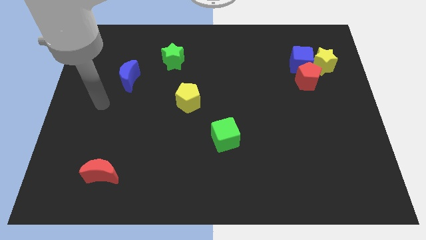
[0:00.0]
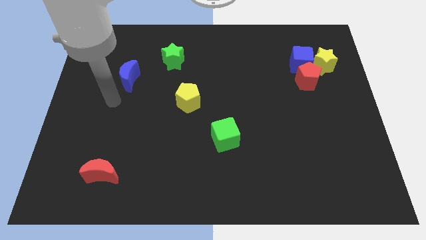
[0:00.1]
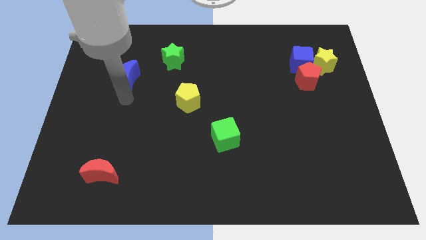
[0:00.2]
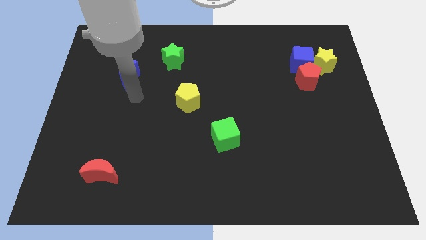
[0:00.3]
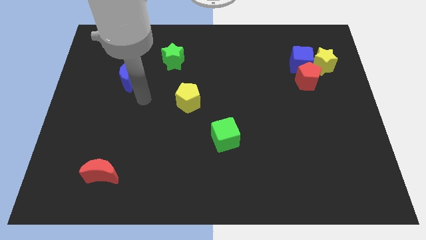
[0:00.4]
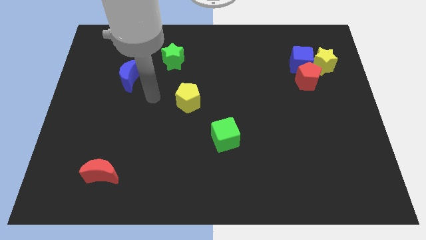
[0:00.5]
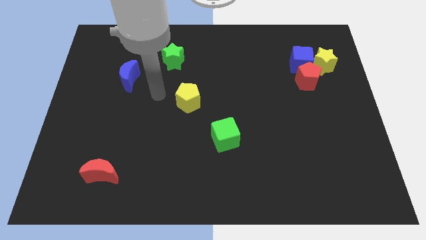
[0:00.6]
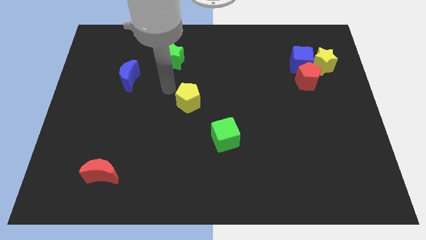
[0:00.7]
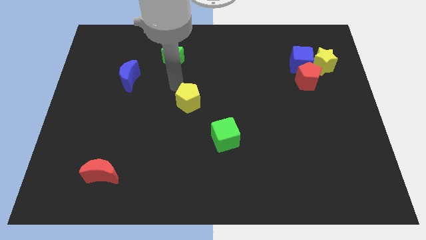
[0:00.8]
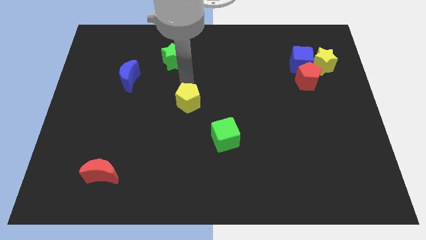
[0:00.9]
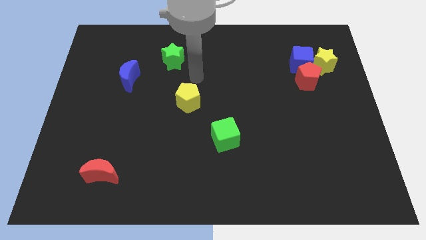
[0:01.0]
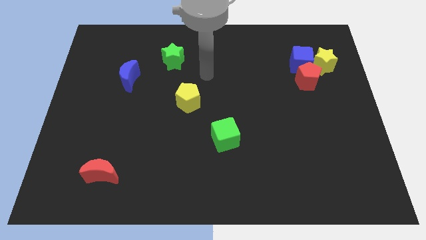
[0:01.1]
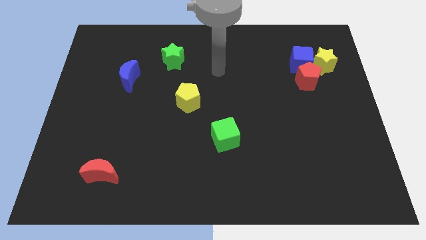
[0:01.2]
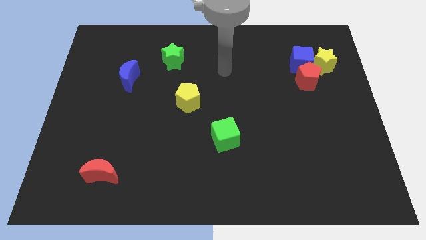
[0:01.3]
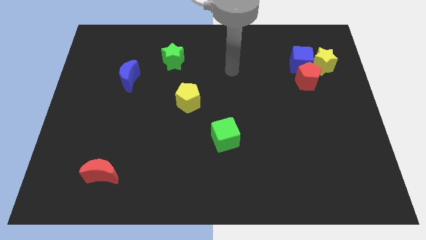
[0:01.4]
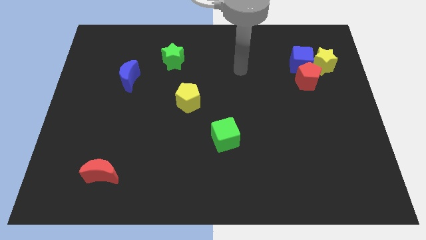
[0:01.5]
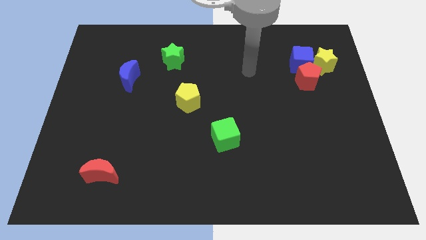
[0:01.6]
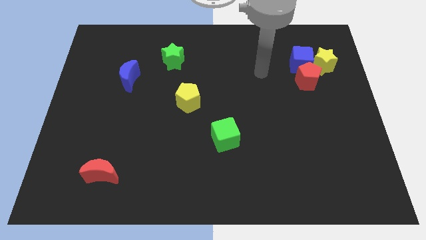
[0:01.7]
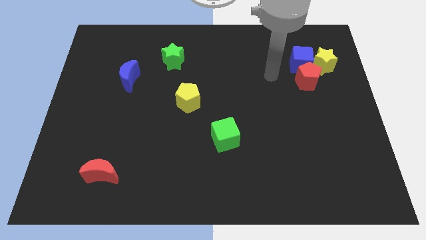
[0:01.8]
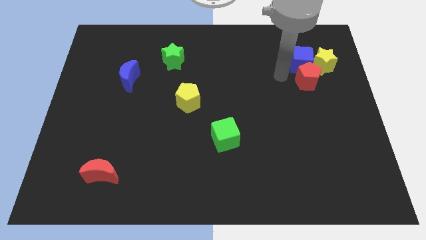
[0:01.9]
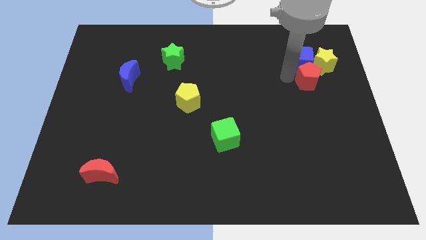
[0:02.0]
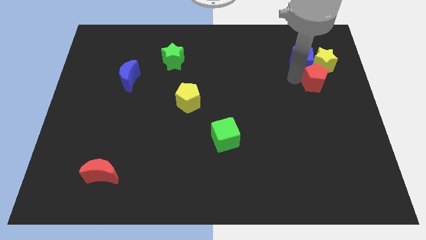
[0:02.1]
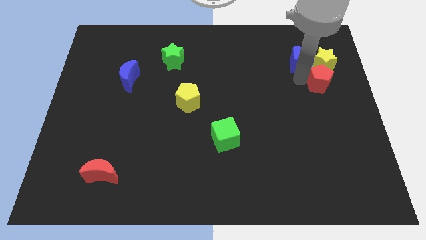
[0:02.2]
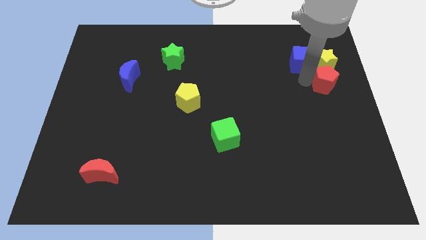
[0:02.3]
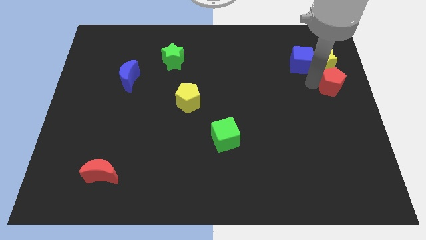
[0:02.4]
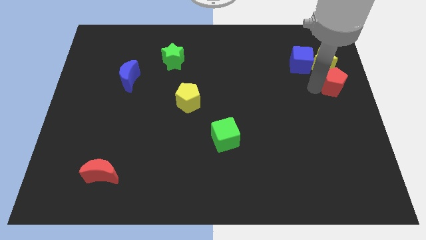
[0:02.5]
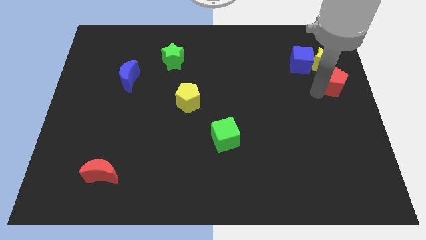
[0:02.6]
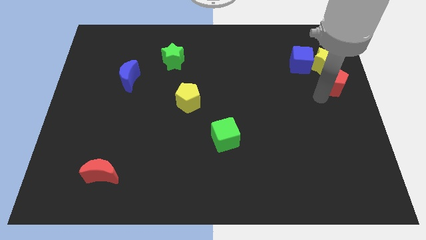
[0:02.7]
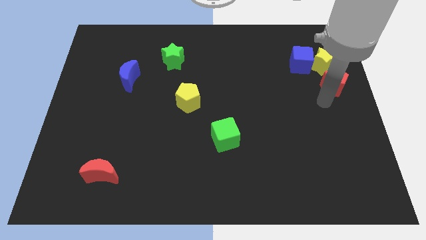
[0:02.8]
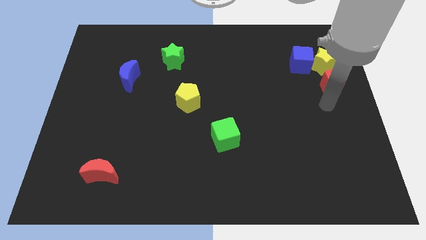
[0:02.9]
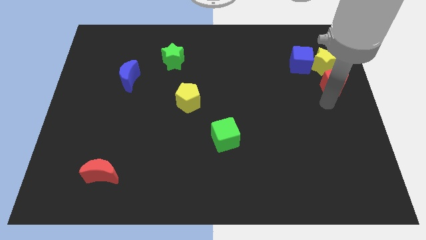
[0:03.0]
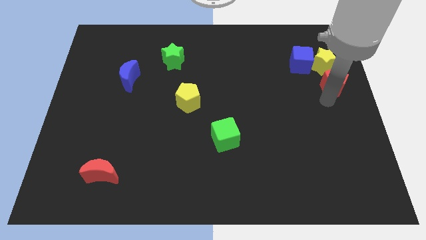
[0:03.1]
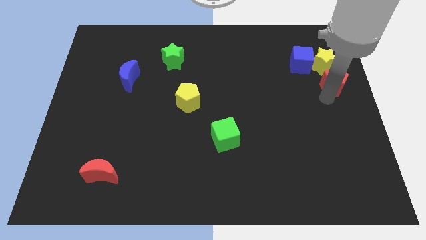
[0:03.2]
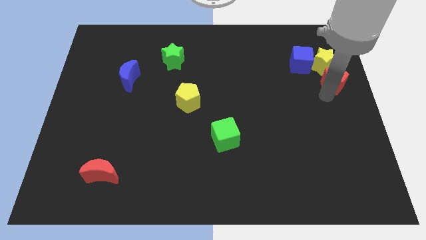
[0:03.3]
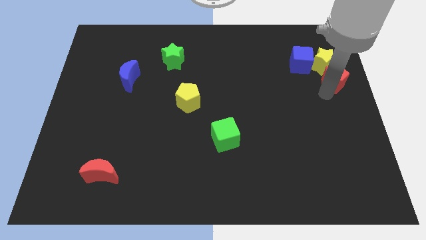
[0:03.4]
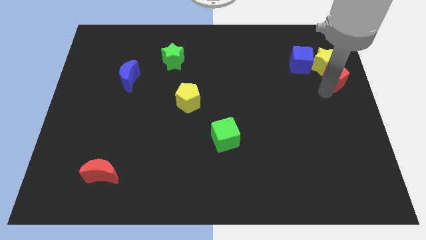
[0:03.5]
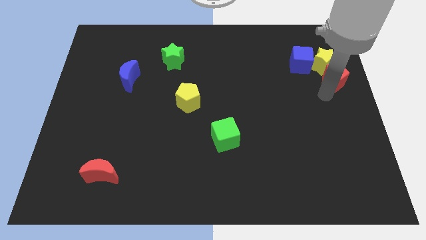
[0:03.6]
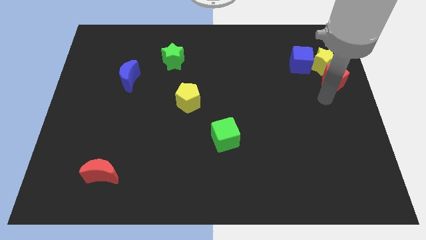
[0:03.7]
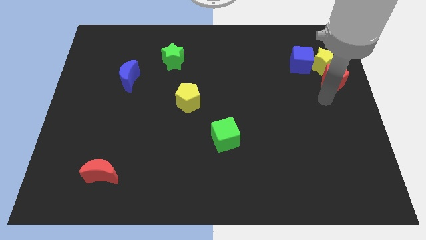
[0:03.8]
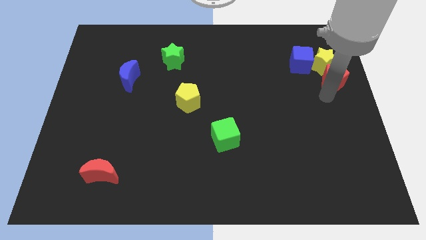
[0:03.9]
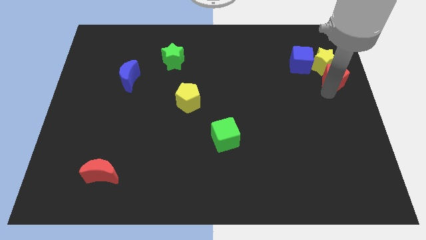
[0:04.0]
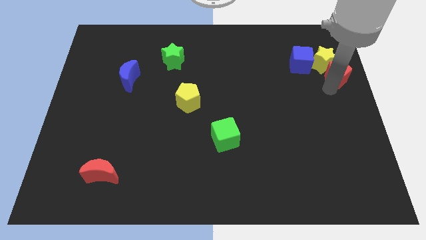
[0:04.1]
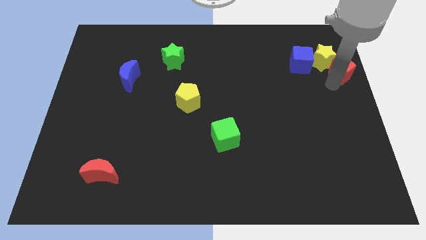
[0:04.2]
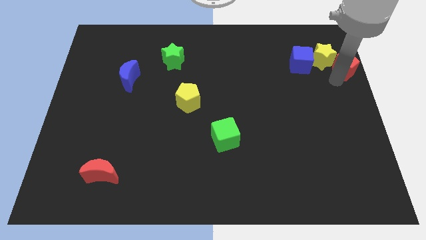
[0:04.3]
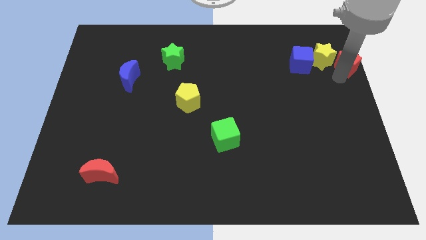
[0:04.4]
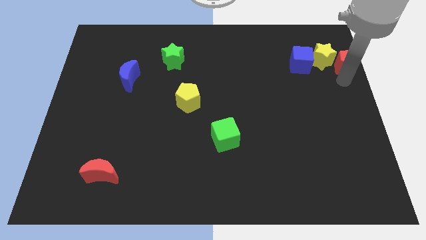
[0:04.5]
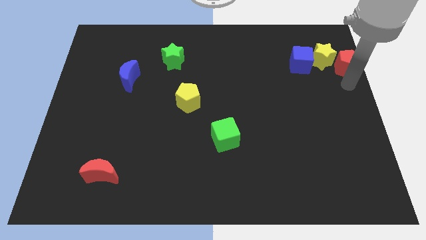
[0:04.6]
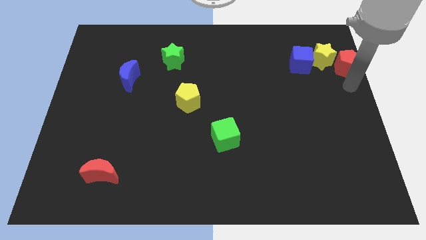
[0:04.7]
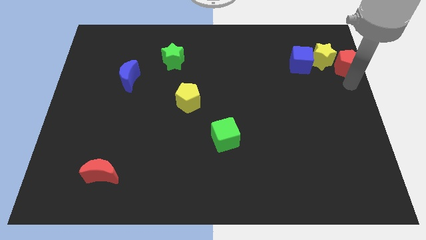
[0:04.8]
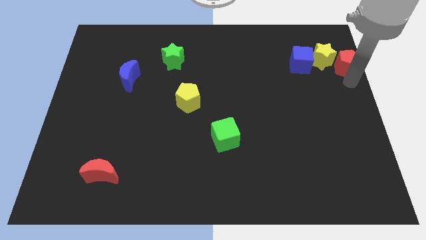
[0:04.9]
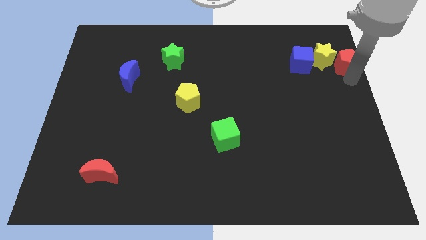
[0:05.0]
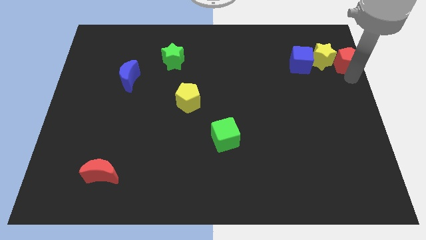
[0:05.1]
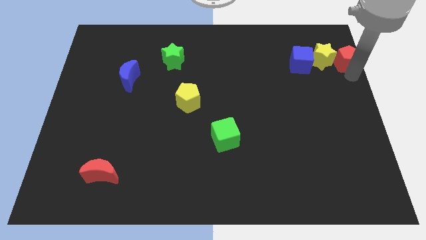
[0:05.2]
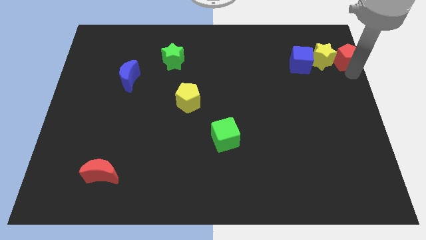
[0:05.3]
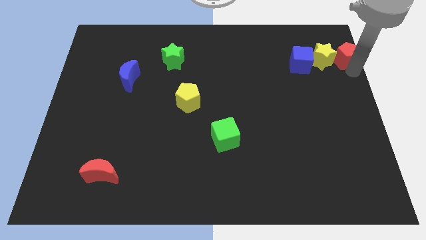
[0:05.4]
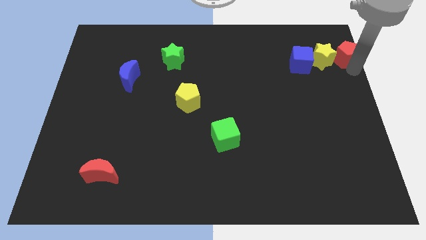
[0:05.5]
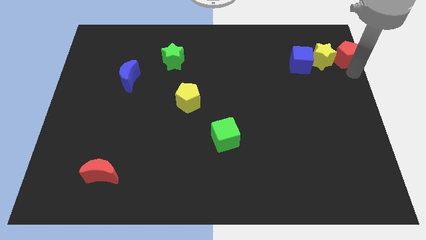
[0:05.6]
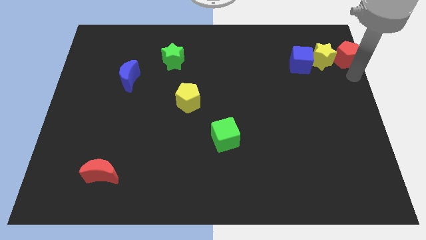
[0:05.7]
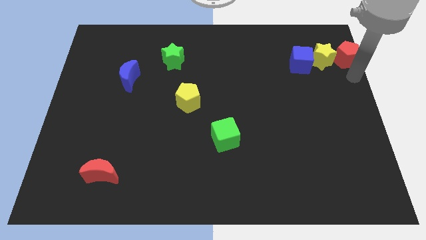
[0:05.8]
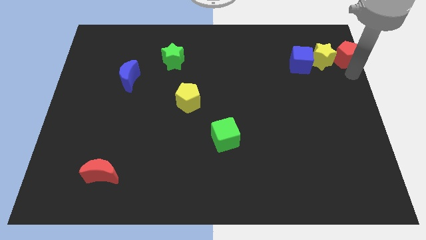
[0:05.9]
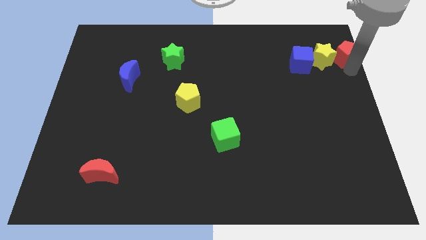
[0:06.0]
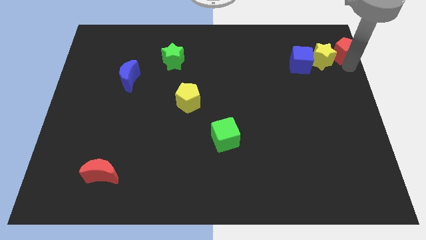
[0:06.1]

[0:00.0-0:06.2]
put the red pentagon to the upper right corner

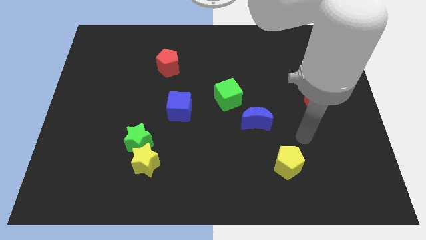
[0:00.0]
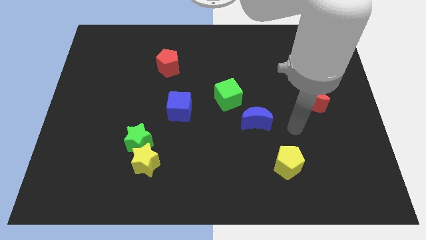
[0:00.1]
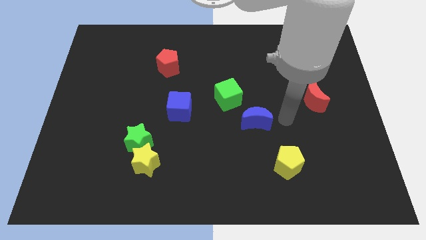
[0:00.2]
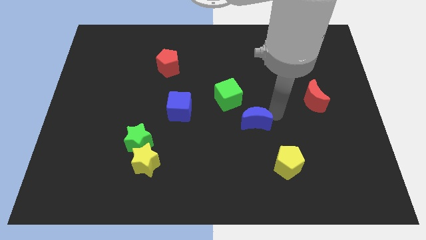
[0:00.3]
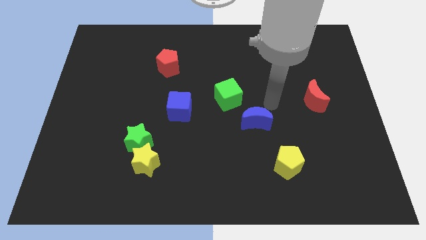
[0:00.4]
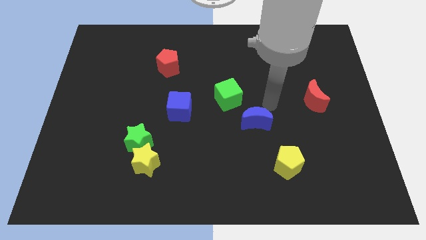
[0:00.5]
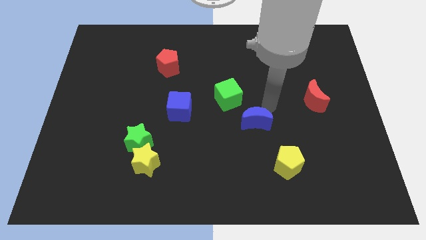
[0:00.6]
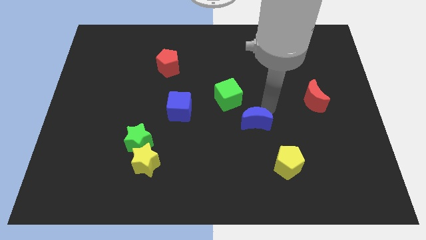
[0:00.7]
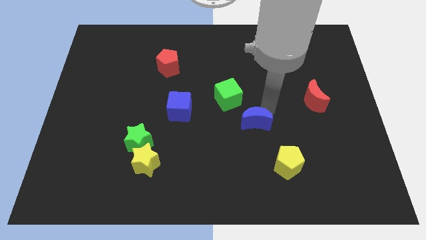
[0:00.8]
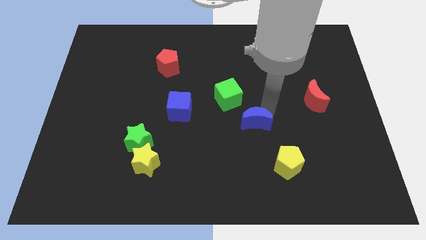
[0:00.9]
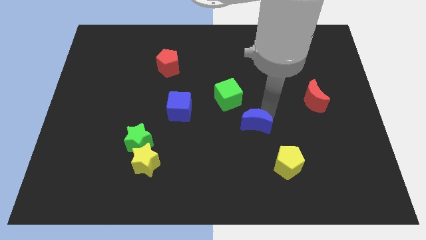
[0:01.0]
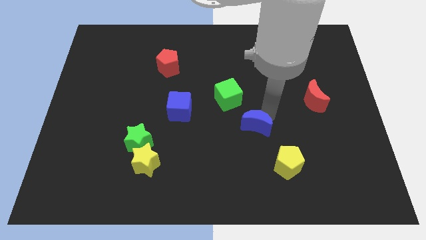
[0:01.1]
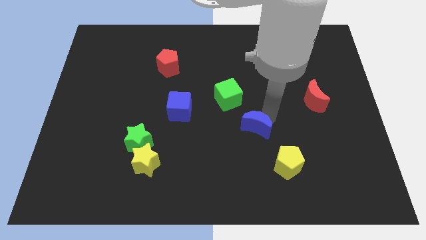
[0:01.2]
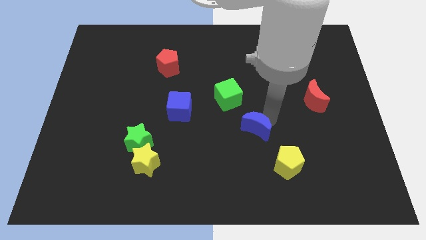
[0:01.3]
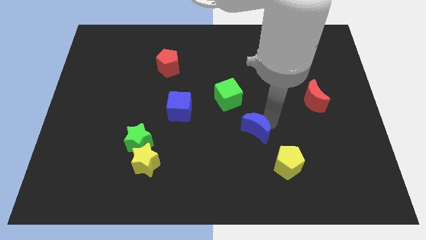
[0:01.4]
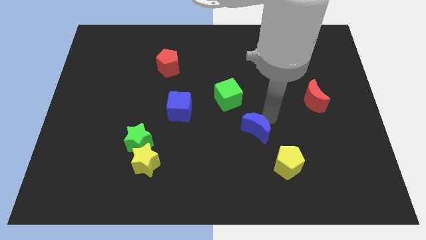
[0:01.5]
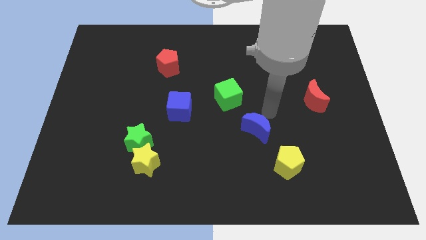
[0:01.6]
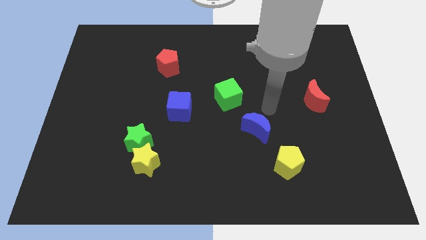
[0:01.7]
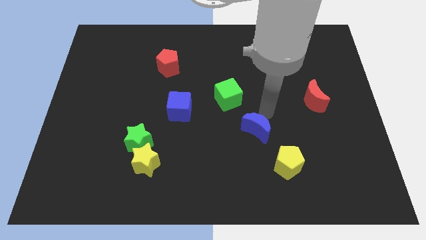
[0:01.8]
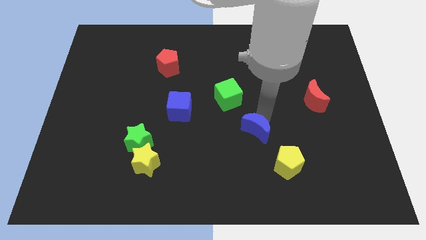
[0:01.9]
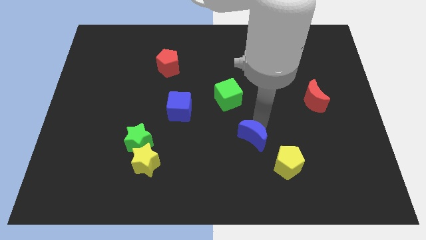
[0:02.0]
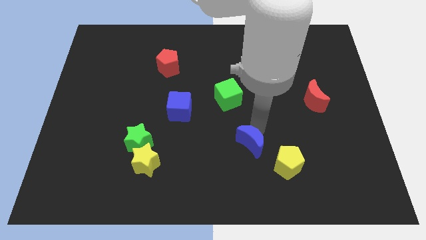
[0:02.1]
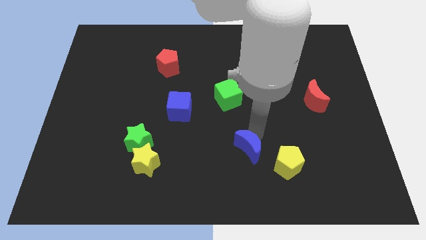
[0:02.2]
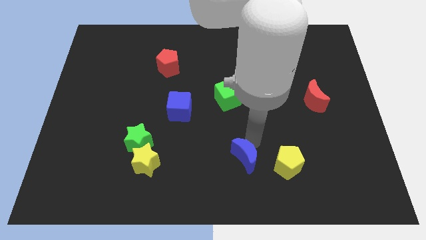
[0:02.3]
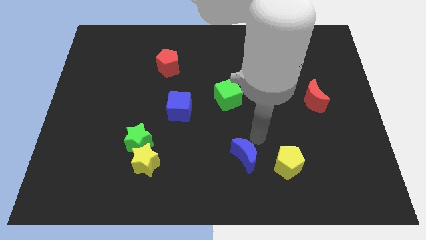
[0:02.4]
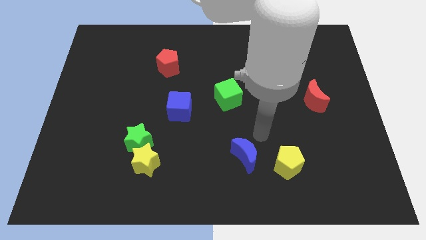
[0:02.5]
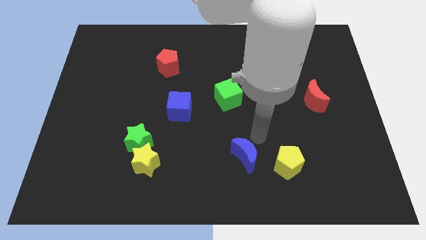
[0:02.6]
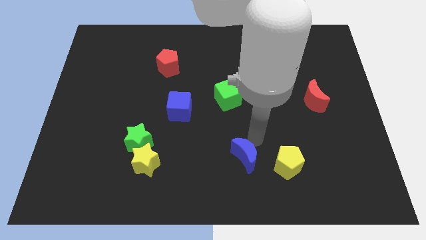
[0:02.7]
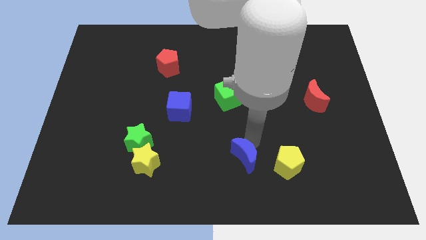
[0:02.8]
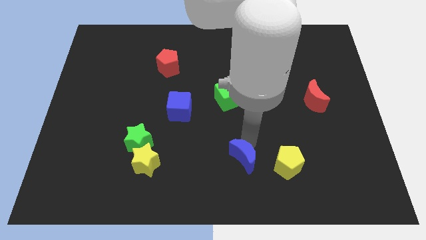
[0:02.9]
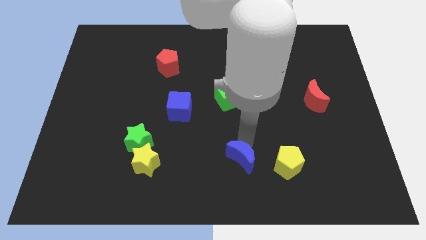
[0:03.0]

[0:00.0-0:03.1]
slide the blue moon to the bottom
